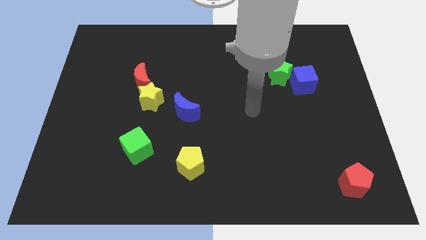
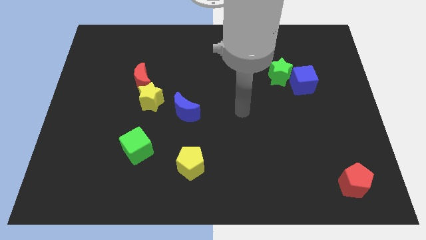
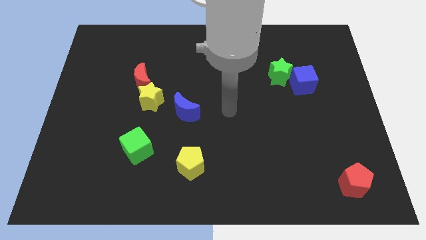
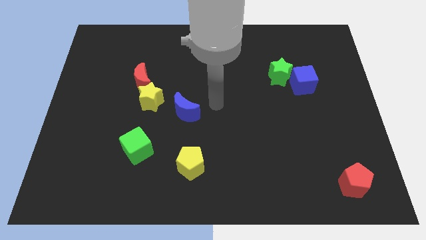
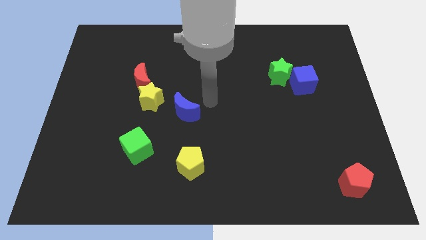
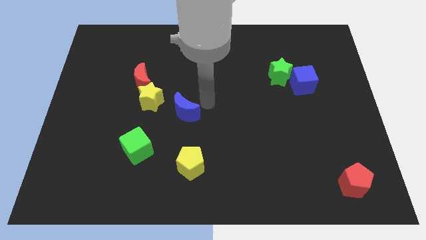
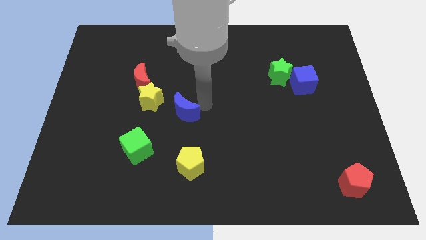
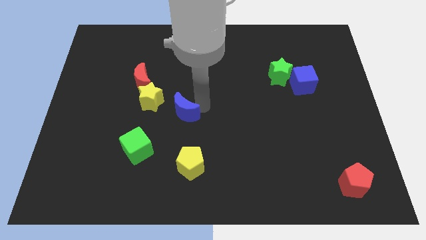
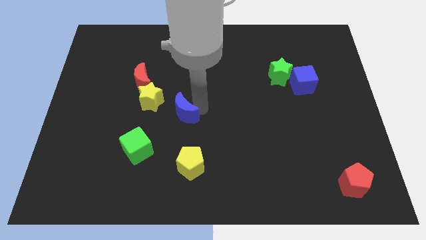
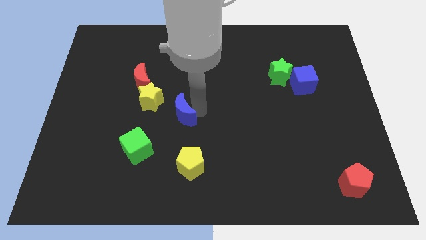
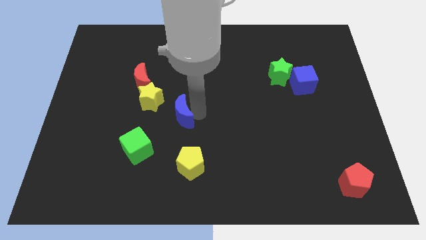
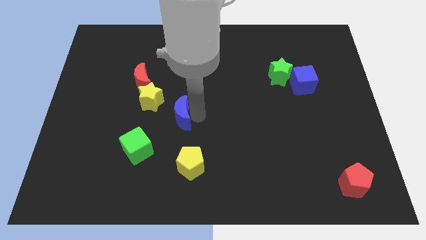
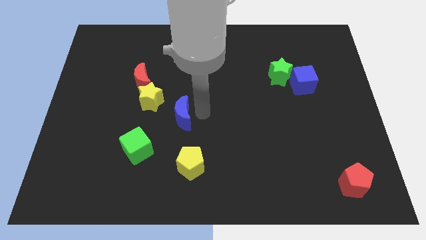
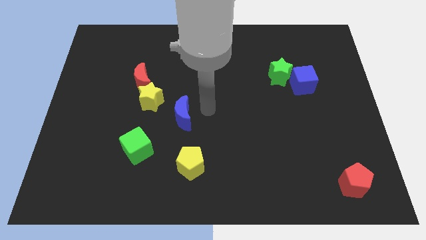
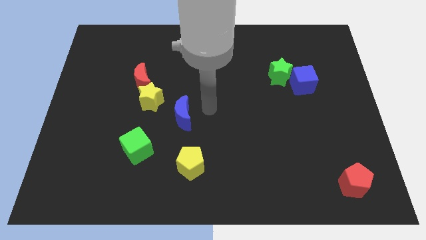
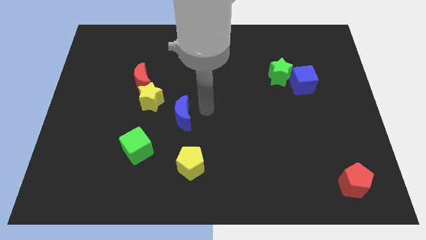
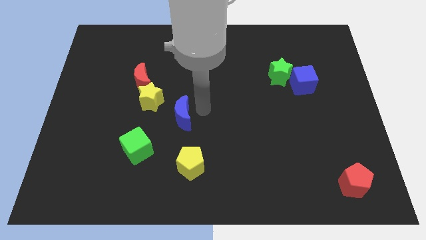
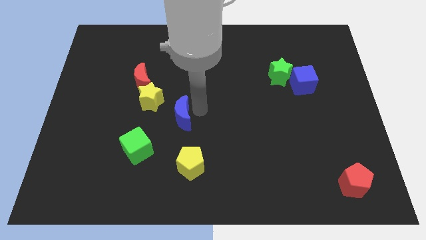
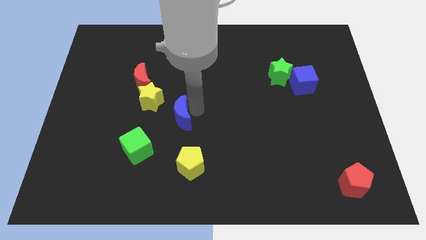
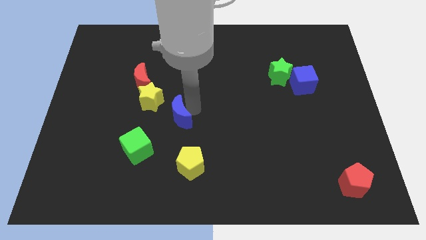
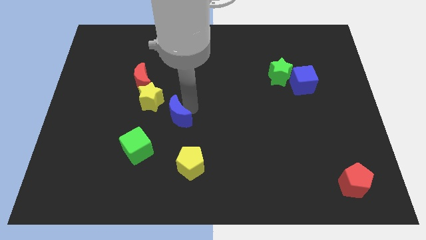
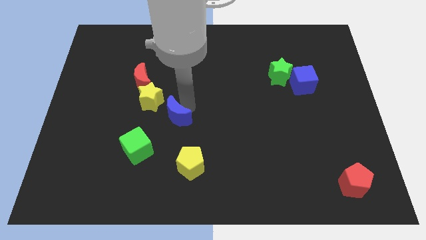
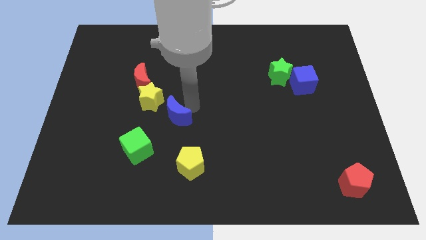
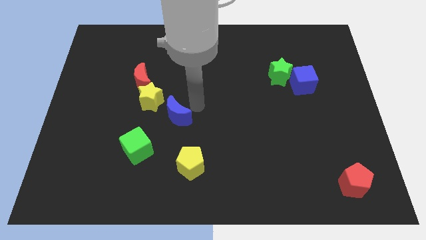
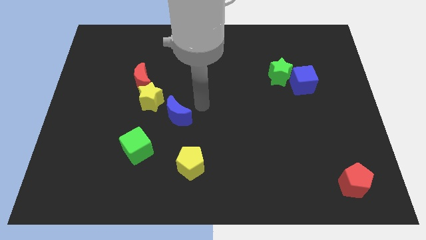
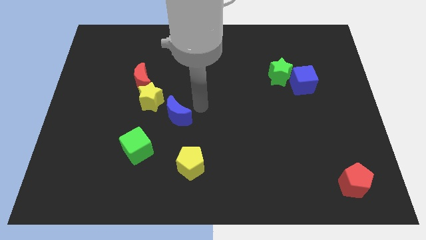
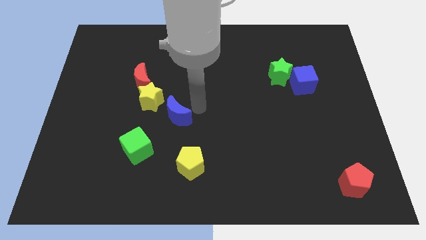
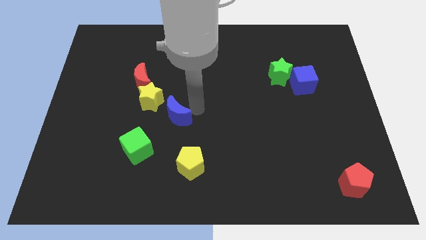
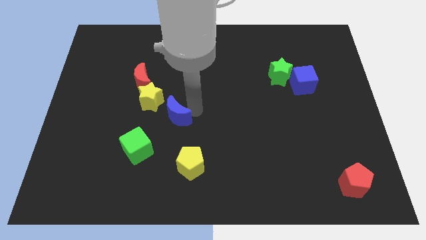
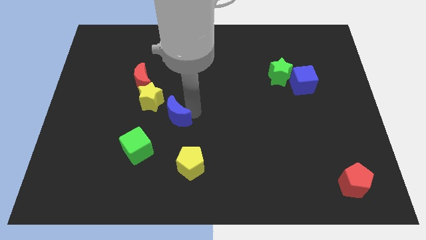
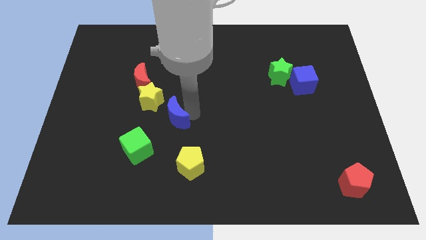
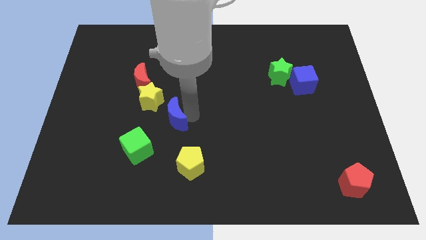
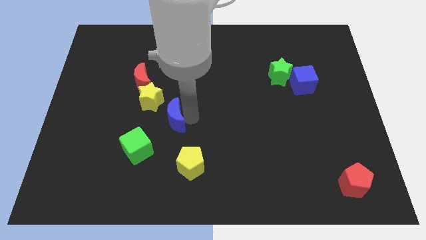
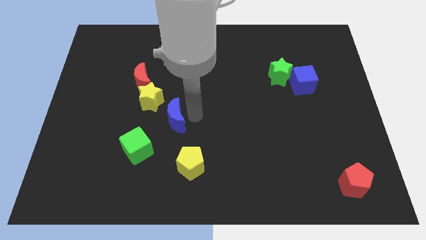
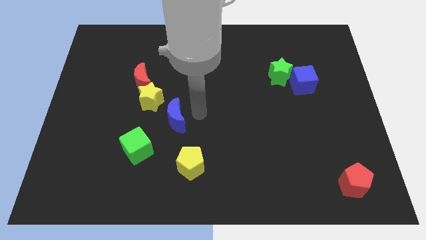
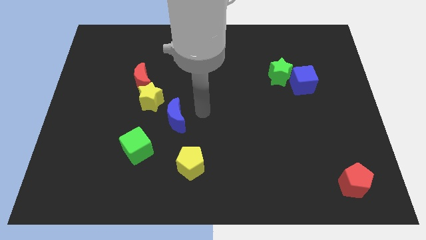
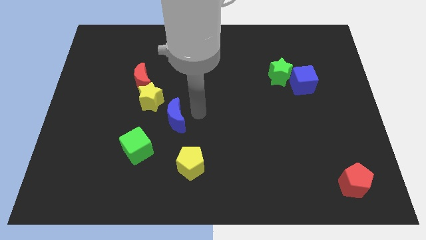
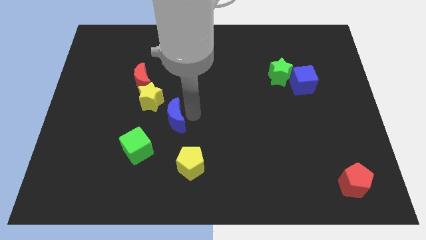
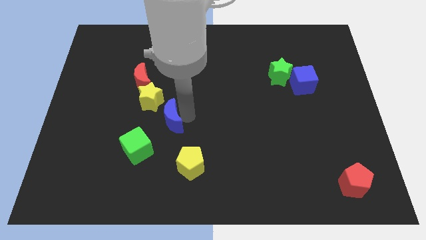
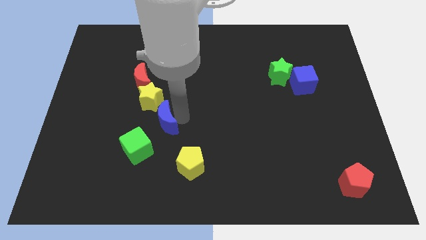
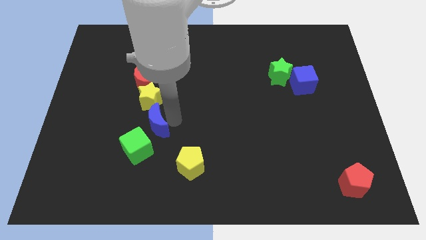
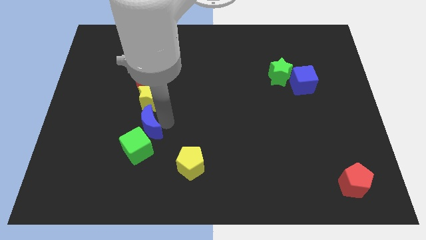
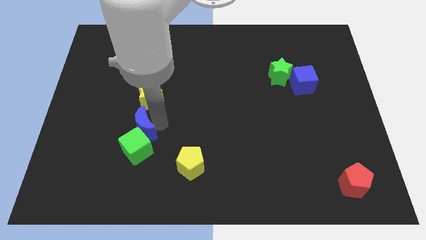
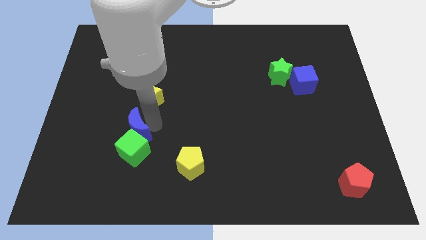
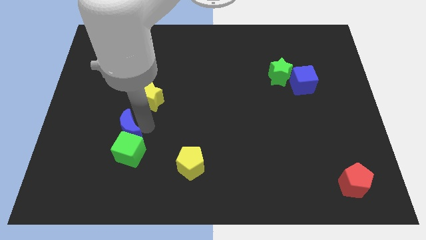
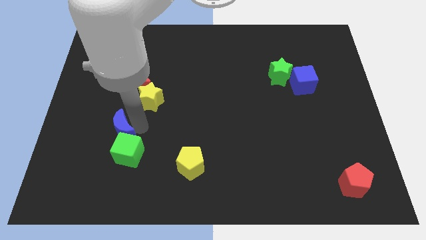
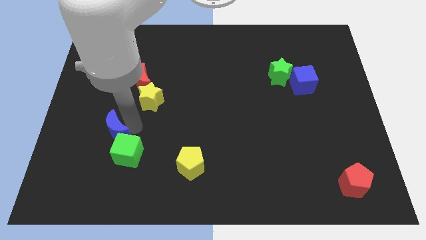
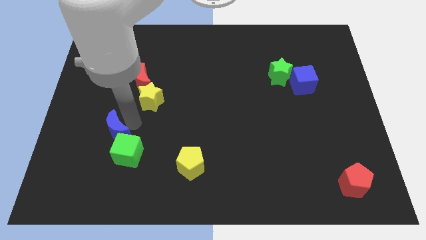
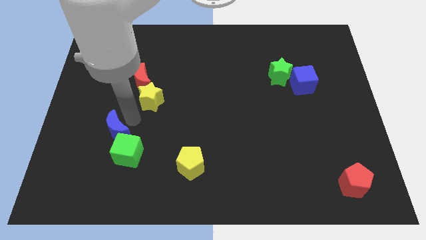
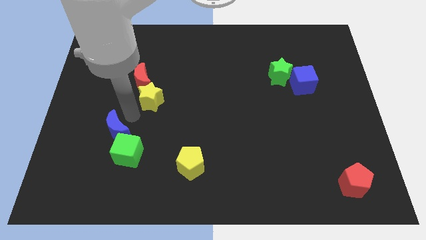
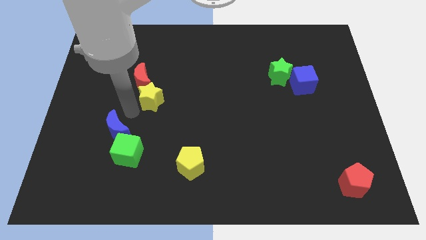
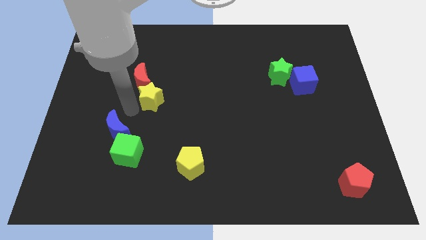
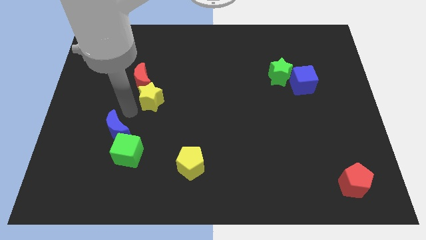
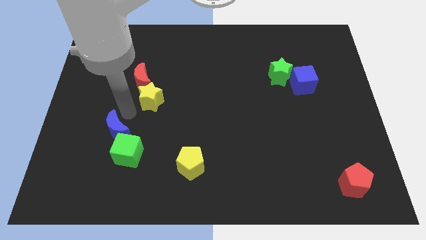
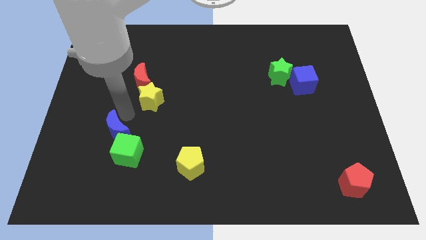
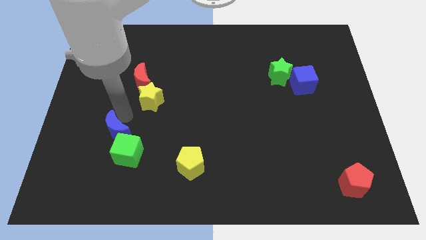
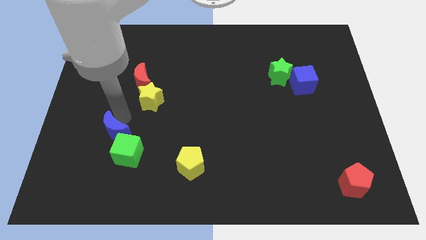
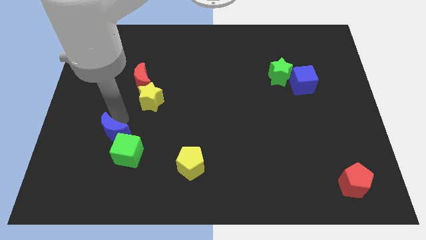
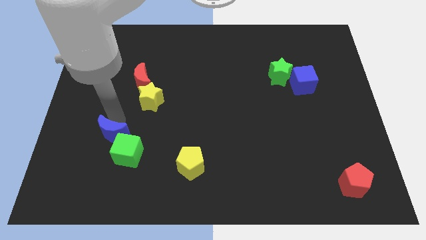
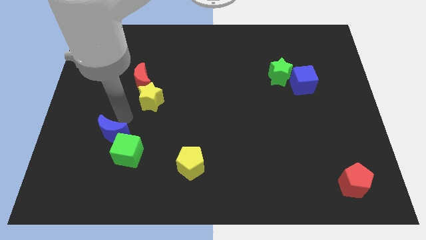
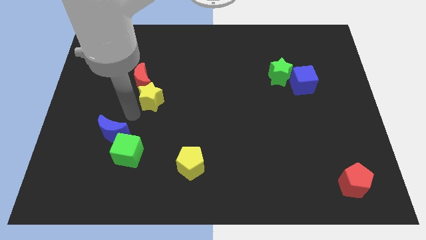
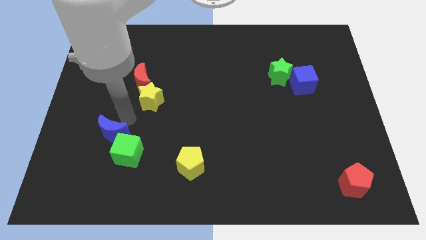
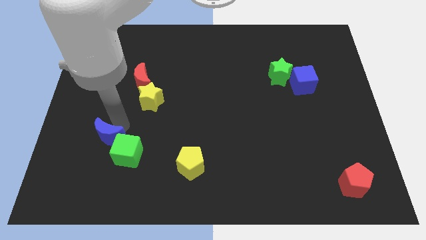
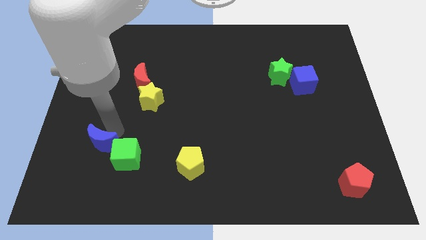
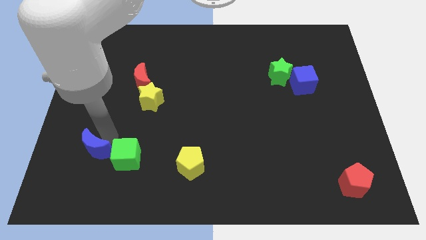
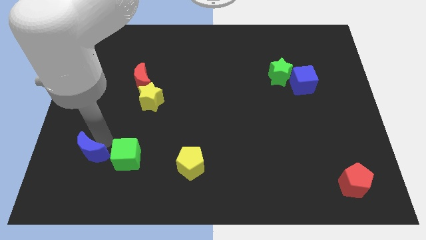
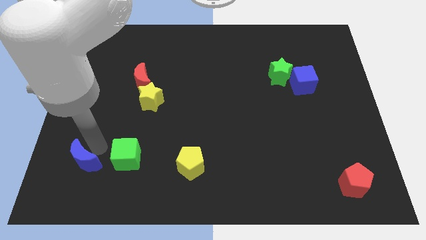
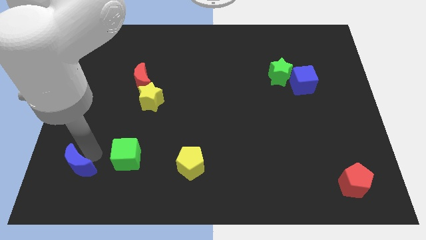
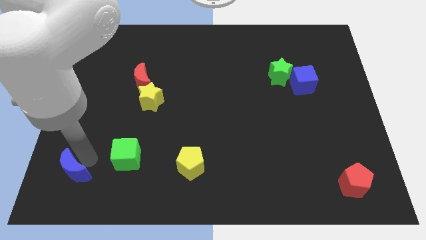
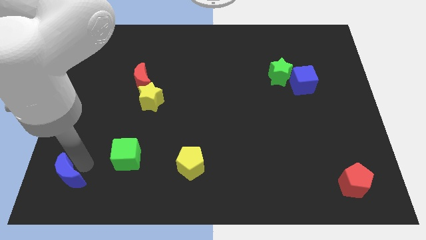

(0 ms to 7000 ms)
push the blue moon to the bottom left corner
